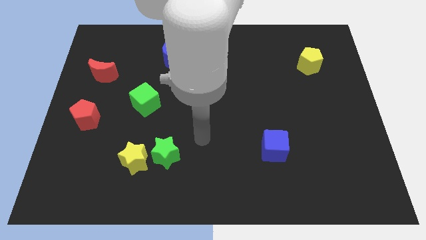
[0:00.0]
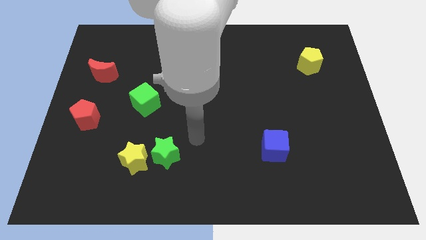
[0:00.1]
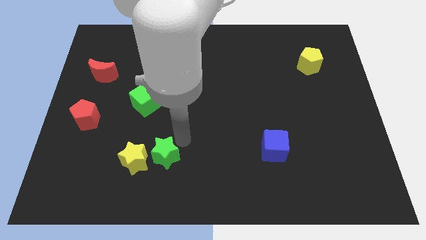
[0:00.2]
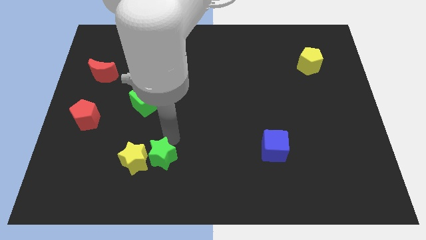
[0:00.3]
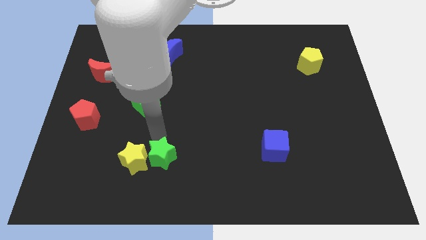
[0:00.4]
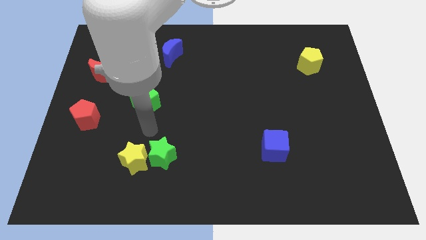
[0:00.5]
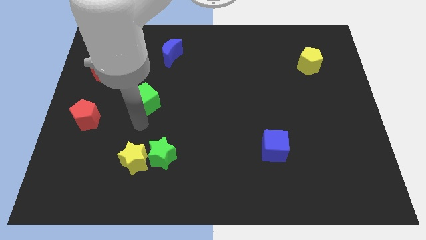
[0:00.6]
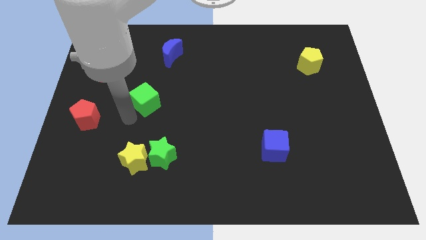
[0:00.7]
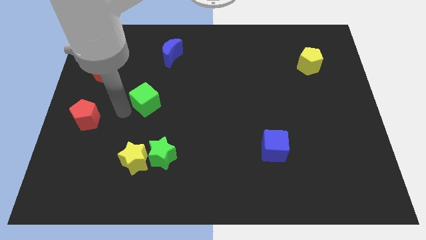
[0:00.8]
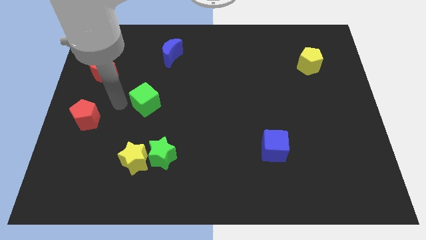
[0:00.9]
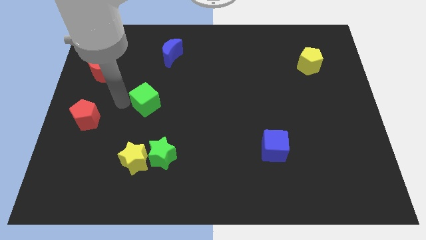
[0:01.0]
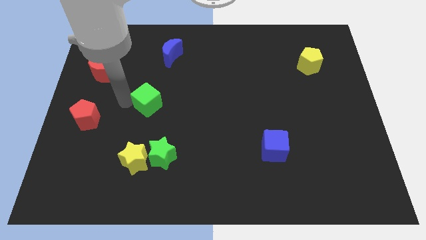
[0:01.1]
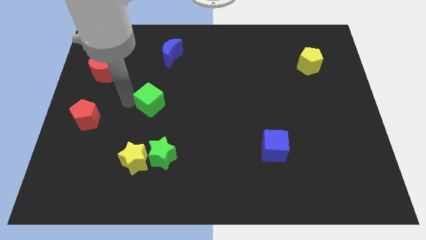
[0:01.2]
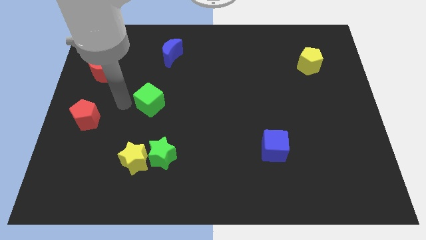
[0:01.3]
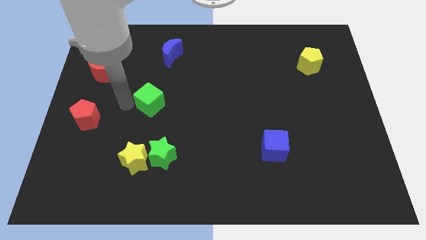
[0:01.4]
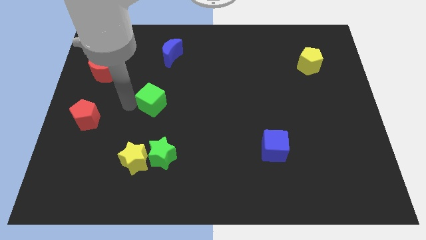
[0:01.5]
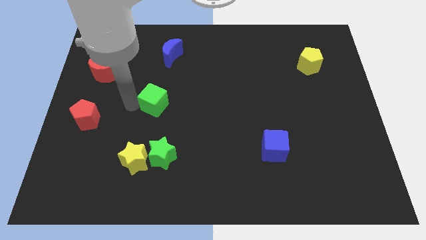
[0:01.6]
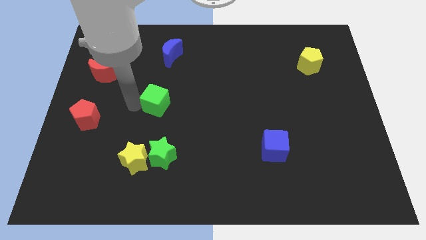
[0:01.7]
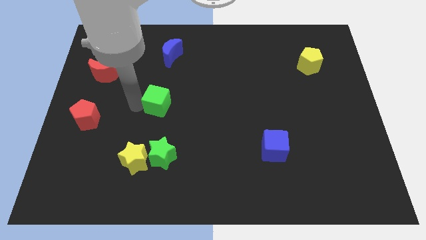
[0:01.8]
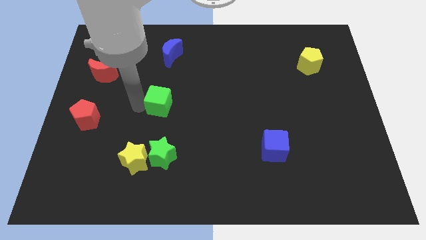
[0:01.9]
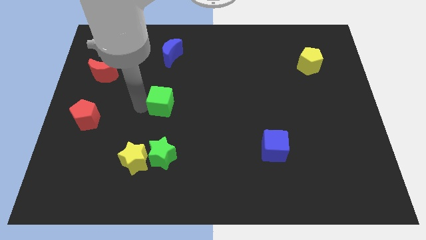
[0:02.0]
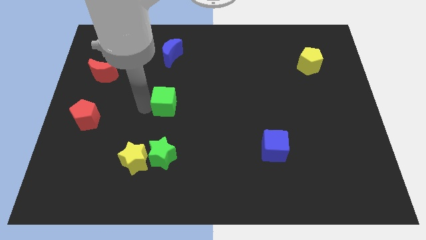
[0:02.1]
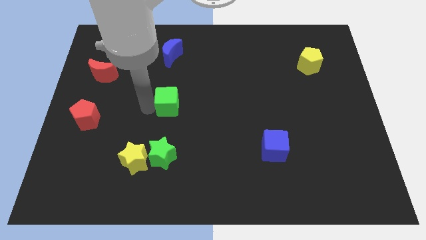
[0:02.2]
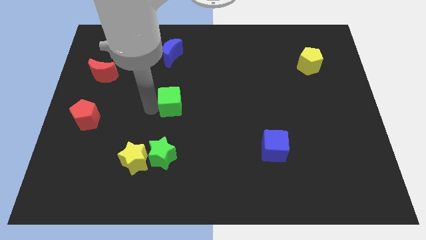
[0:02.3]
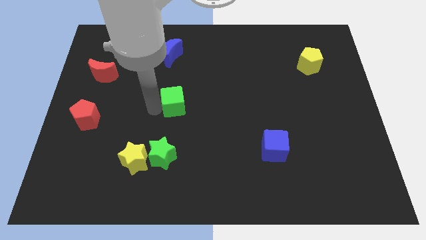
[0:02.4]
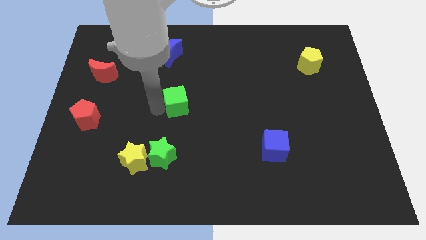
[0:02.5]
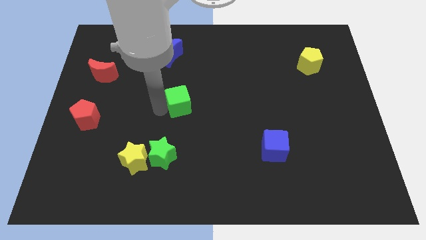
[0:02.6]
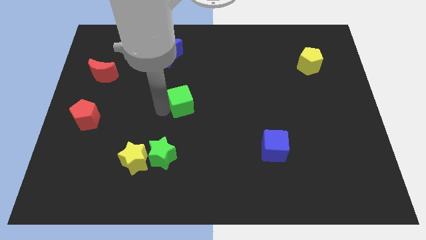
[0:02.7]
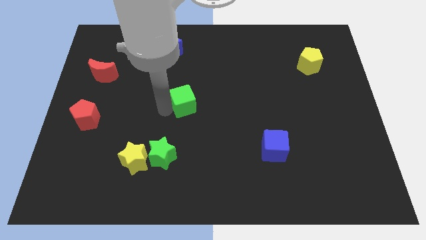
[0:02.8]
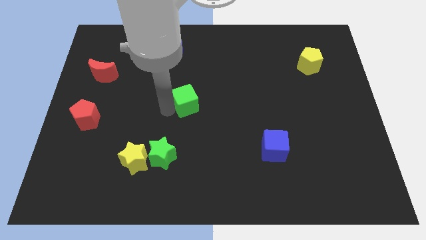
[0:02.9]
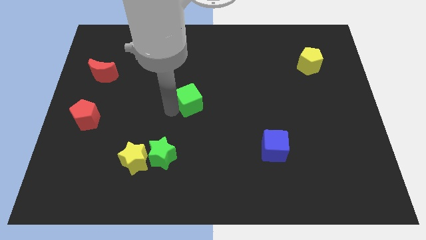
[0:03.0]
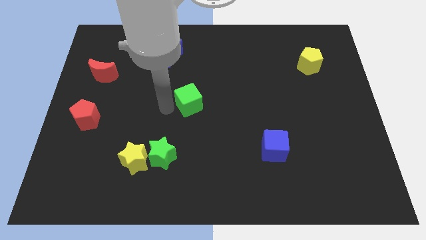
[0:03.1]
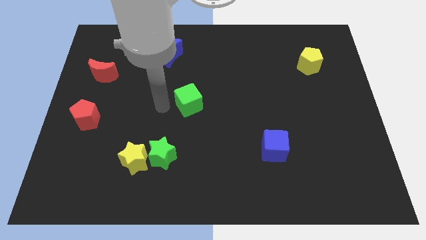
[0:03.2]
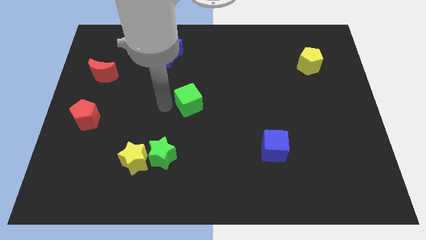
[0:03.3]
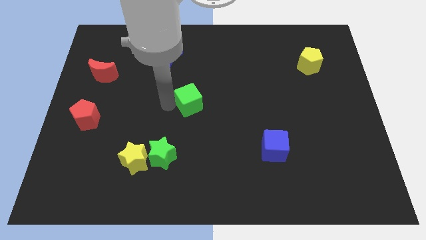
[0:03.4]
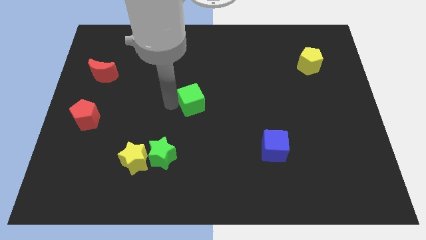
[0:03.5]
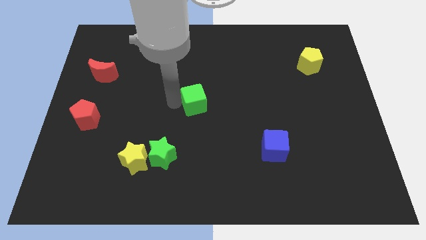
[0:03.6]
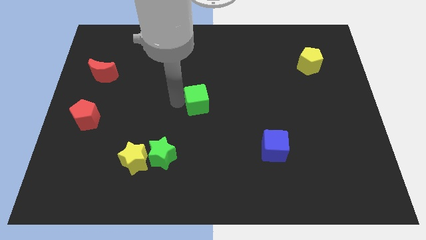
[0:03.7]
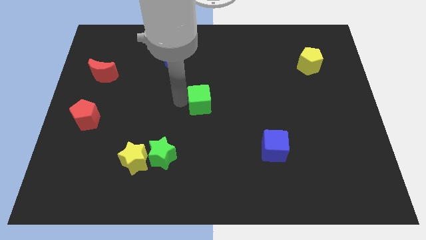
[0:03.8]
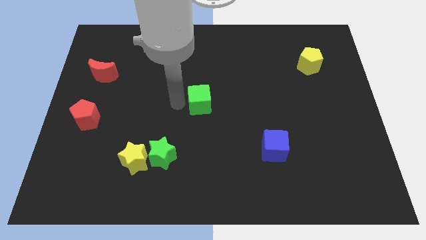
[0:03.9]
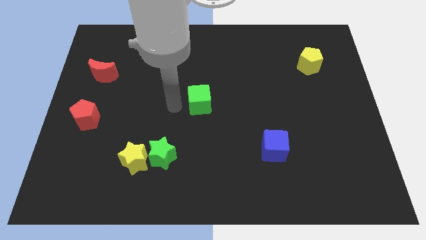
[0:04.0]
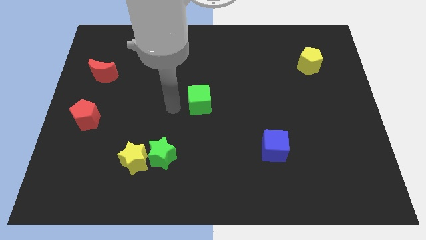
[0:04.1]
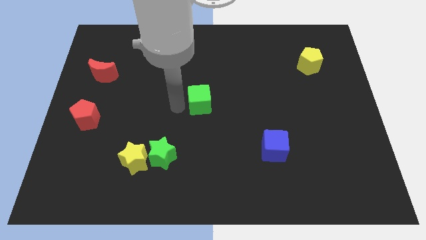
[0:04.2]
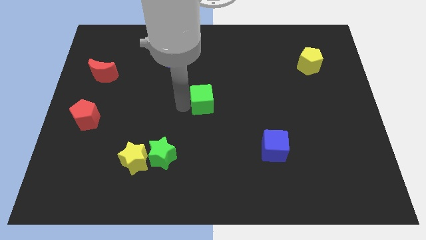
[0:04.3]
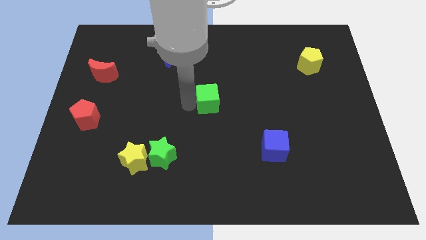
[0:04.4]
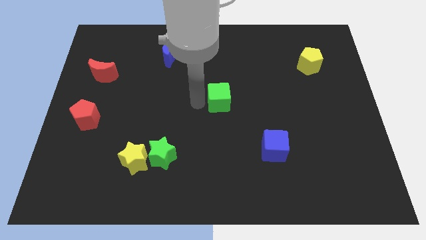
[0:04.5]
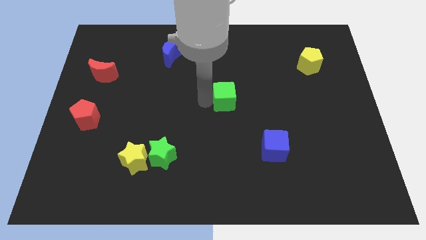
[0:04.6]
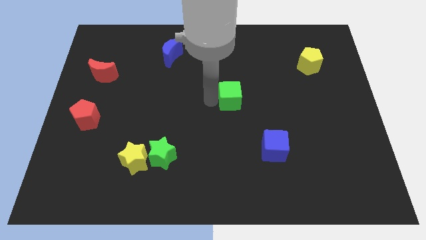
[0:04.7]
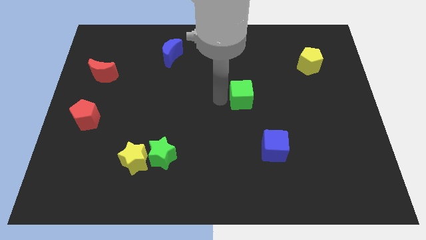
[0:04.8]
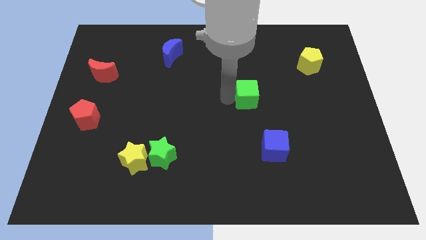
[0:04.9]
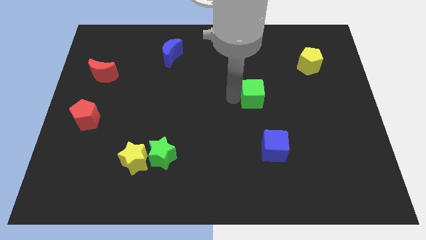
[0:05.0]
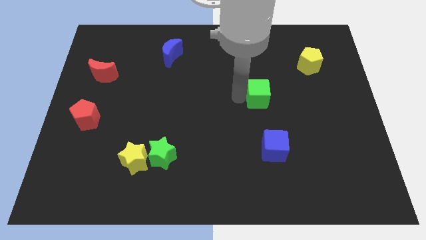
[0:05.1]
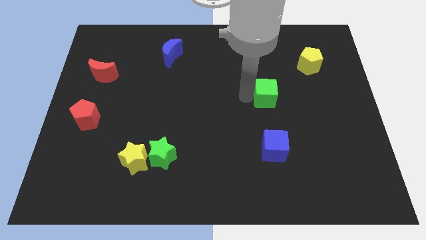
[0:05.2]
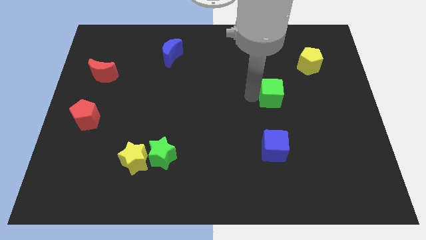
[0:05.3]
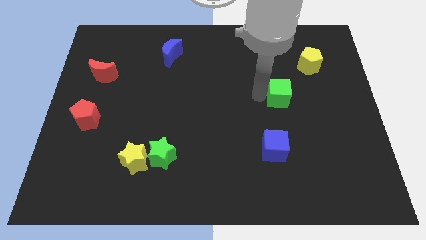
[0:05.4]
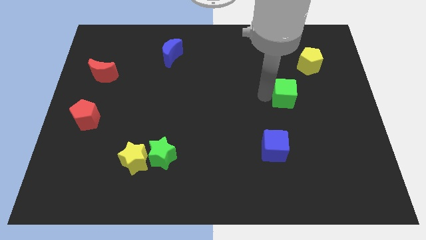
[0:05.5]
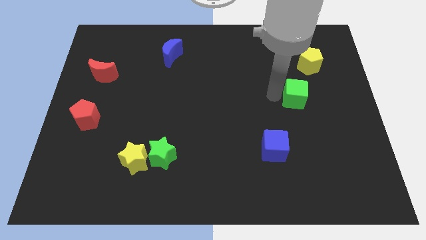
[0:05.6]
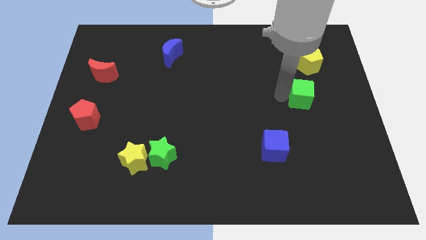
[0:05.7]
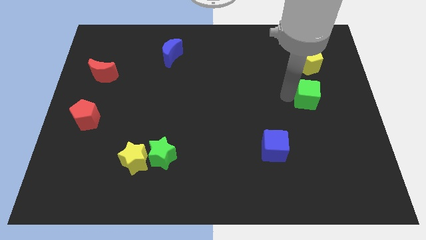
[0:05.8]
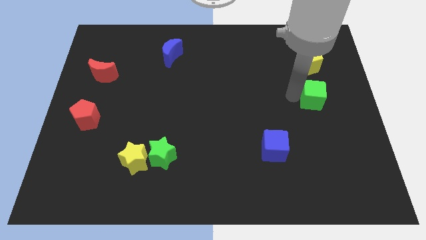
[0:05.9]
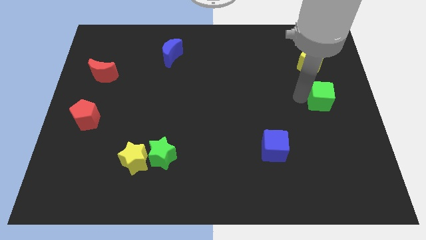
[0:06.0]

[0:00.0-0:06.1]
slide the green cube to the right side
